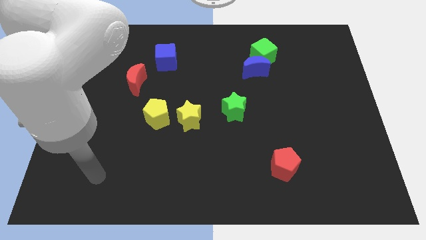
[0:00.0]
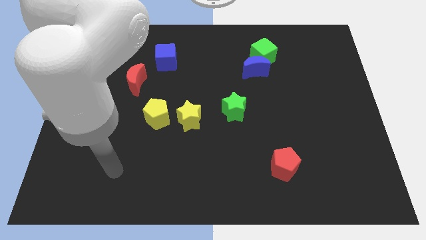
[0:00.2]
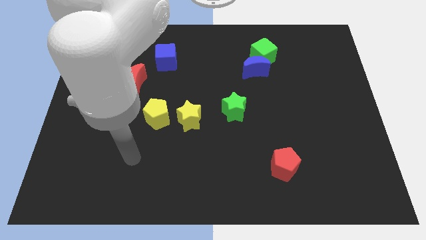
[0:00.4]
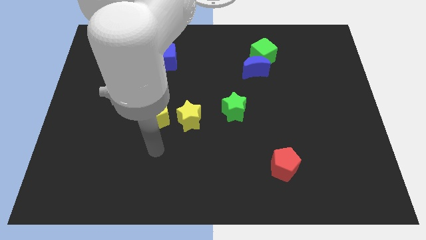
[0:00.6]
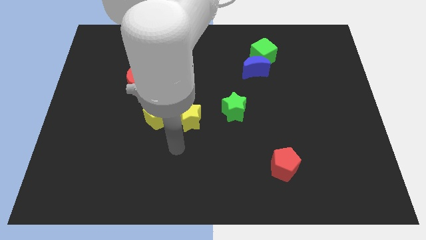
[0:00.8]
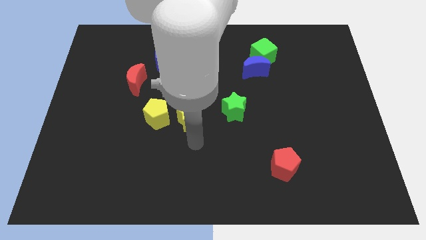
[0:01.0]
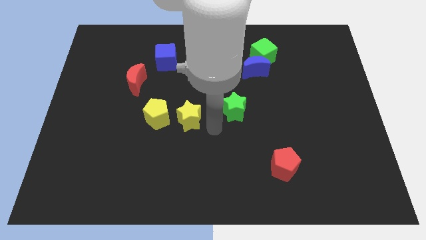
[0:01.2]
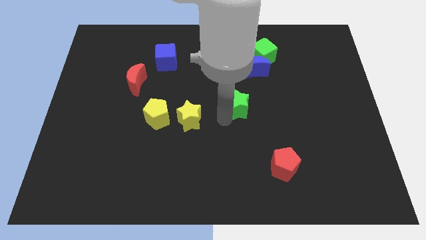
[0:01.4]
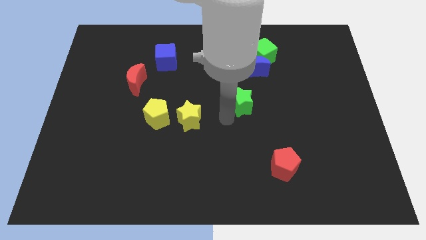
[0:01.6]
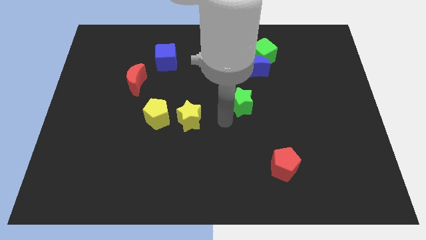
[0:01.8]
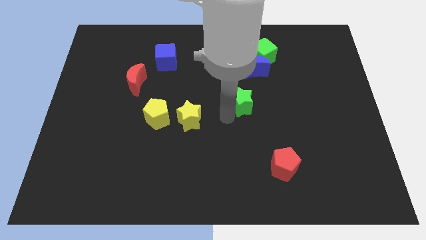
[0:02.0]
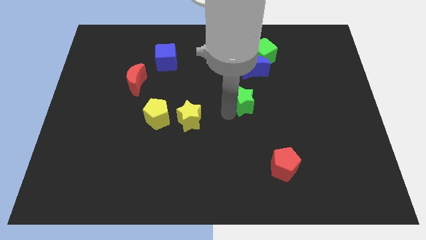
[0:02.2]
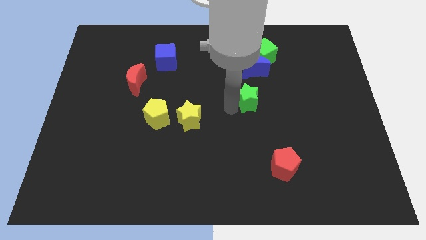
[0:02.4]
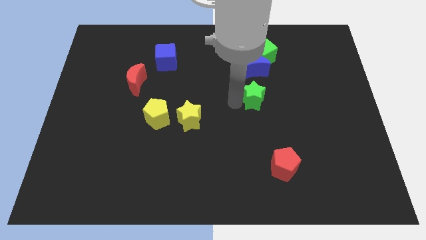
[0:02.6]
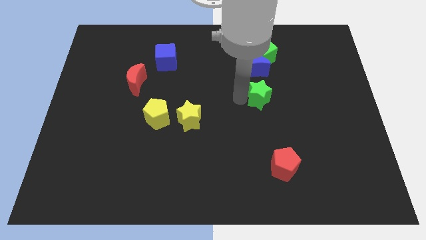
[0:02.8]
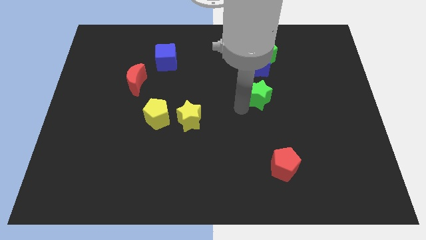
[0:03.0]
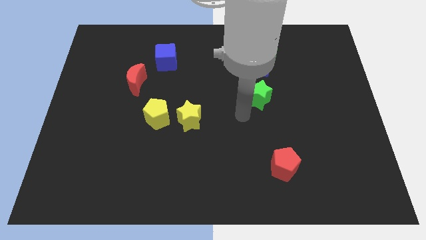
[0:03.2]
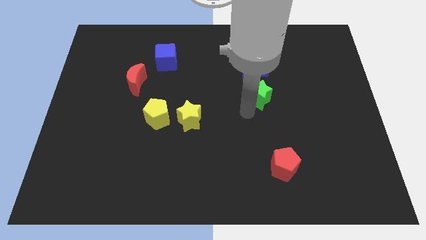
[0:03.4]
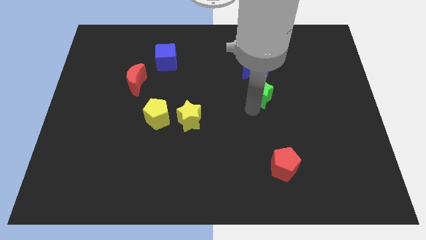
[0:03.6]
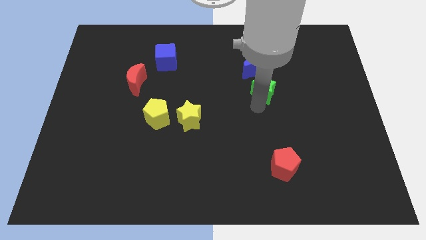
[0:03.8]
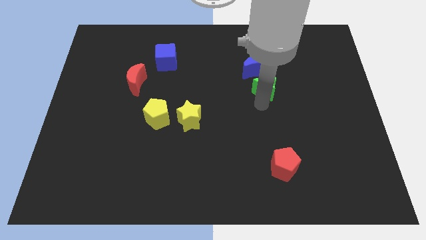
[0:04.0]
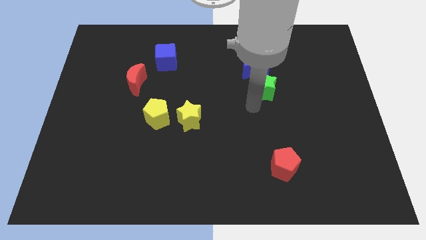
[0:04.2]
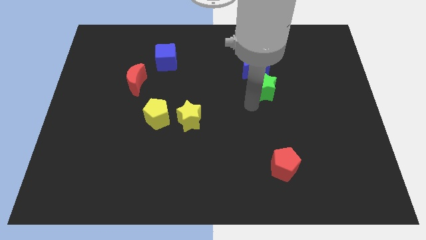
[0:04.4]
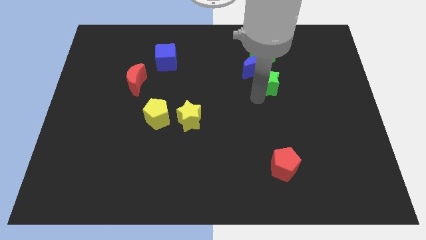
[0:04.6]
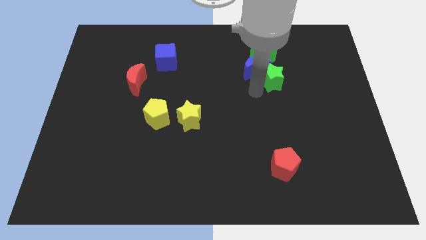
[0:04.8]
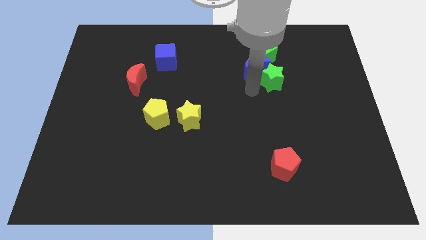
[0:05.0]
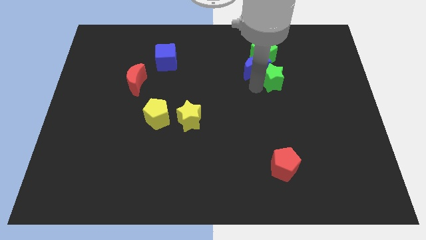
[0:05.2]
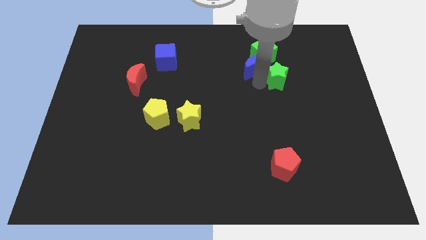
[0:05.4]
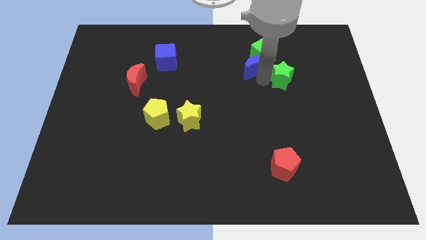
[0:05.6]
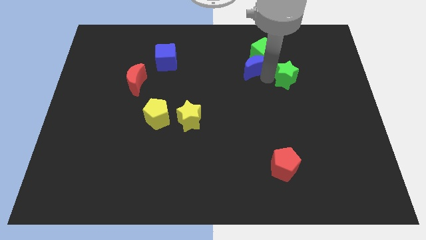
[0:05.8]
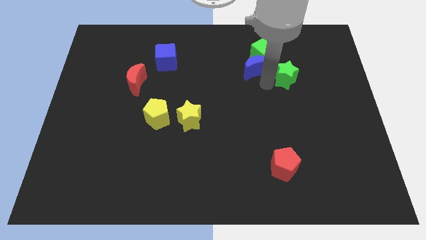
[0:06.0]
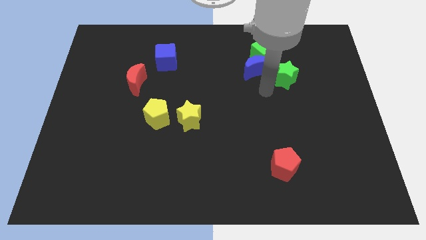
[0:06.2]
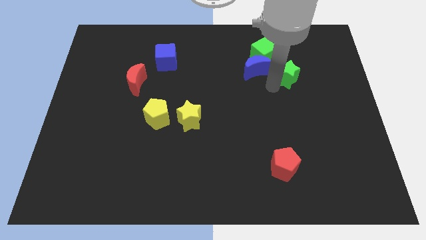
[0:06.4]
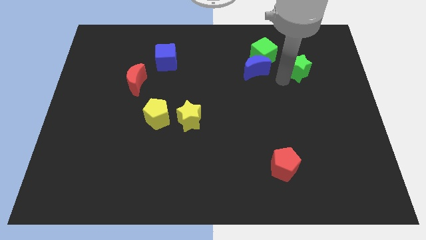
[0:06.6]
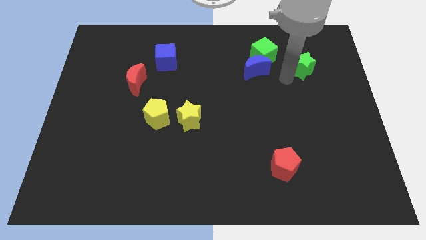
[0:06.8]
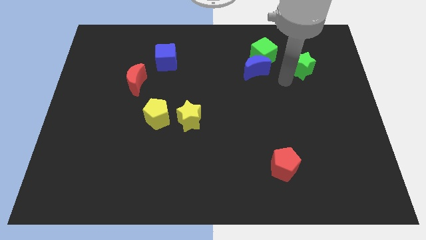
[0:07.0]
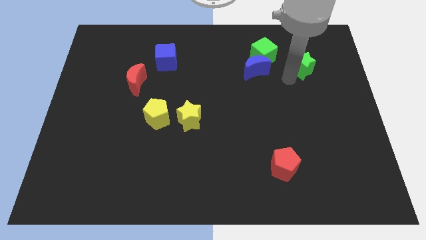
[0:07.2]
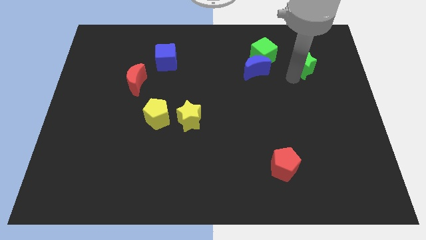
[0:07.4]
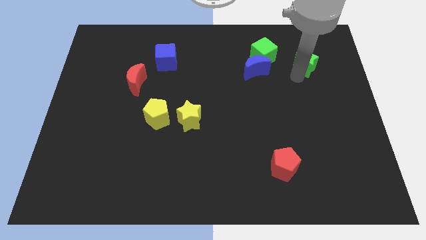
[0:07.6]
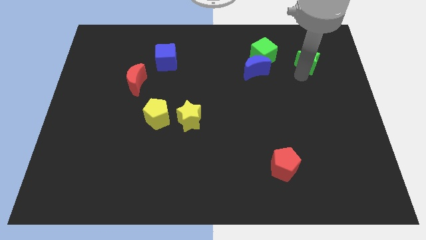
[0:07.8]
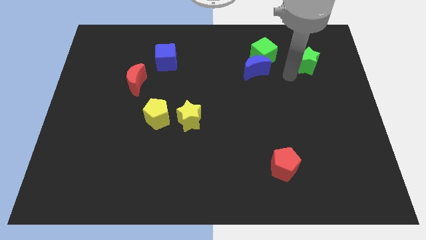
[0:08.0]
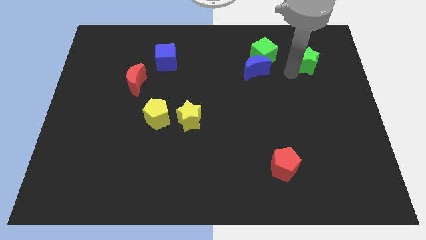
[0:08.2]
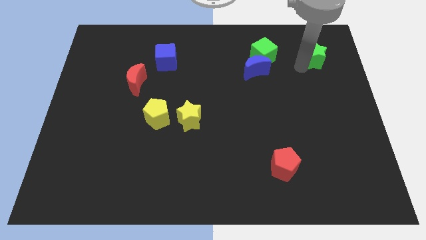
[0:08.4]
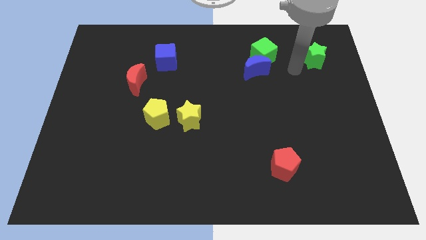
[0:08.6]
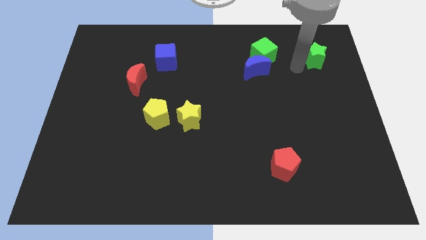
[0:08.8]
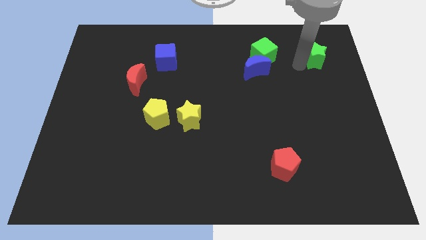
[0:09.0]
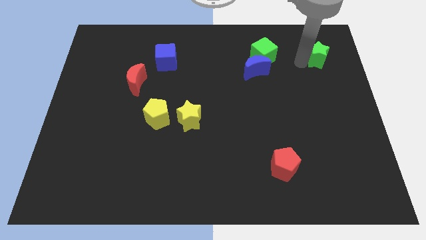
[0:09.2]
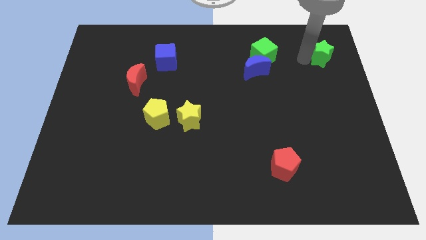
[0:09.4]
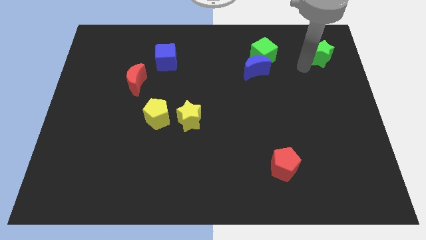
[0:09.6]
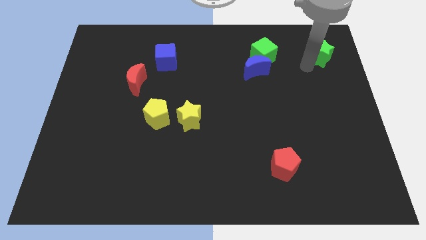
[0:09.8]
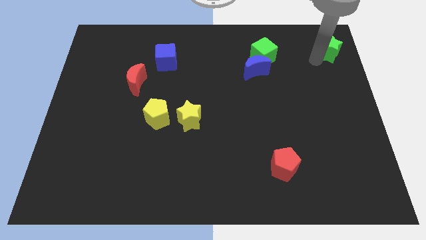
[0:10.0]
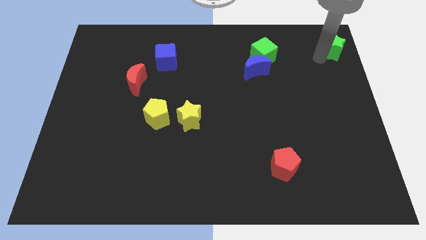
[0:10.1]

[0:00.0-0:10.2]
put the green star to the top right

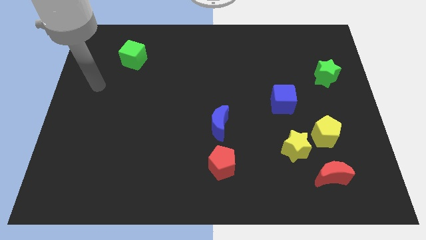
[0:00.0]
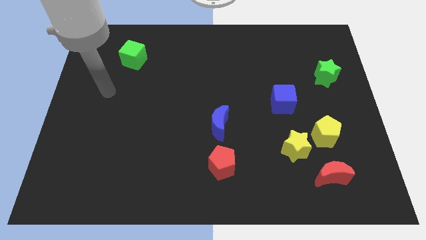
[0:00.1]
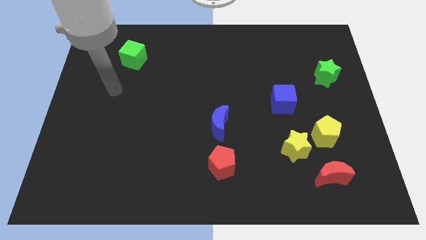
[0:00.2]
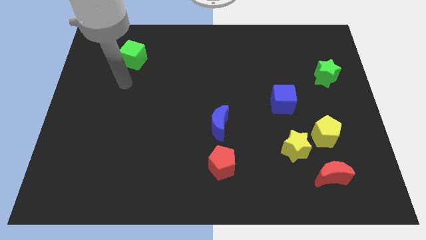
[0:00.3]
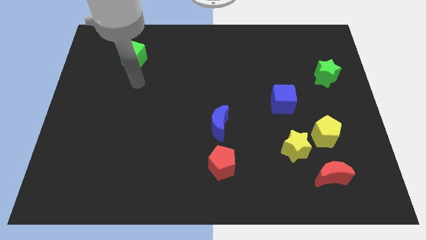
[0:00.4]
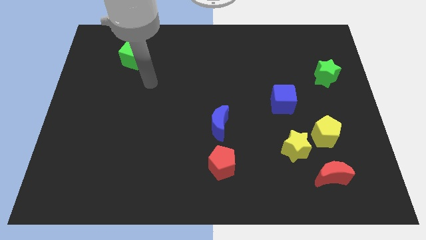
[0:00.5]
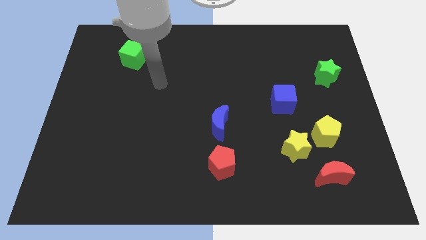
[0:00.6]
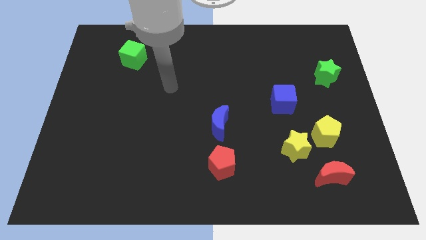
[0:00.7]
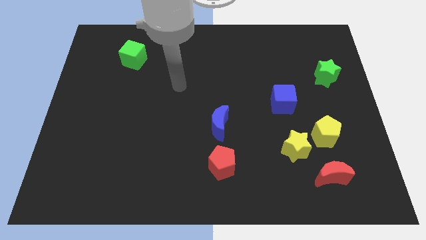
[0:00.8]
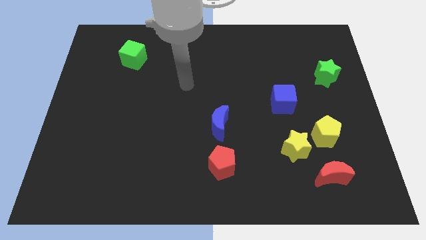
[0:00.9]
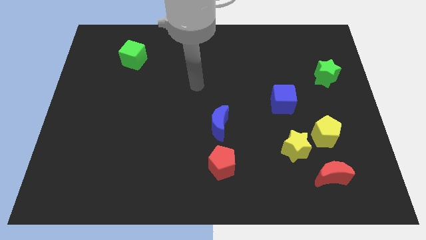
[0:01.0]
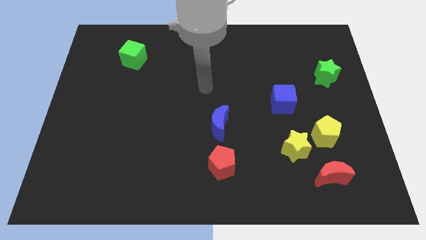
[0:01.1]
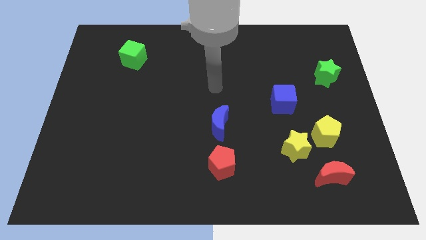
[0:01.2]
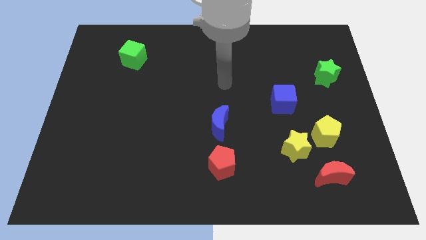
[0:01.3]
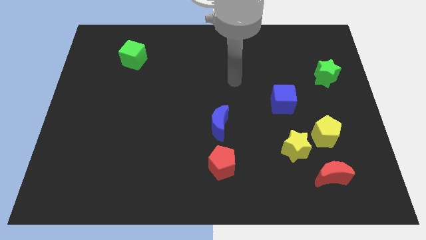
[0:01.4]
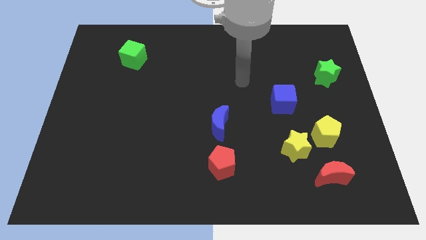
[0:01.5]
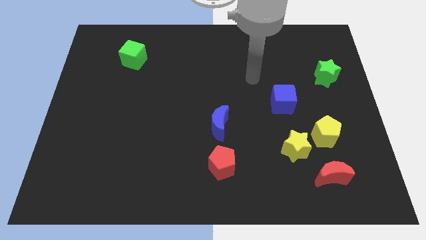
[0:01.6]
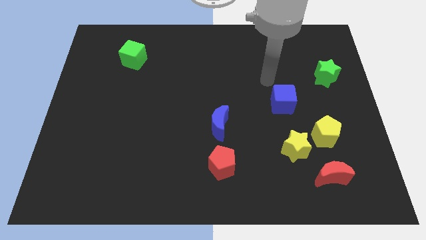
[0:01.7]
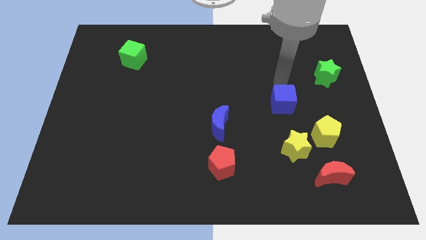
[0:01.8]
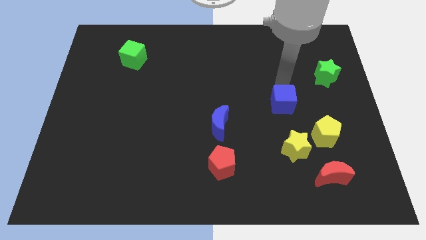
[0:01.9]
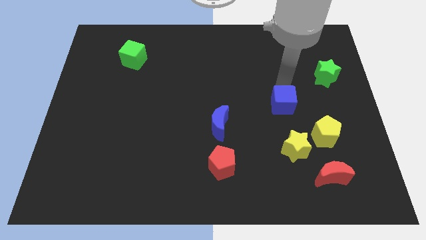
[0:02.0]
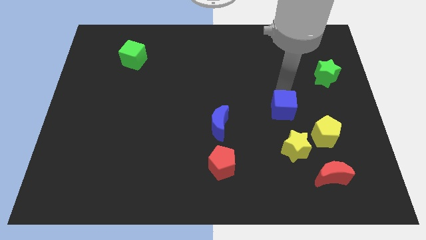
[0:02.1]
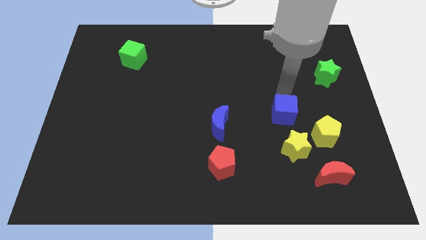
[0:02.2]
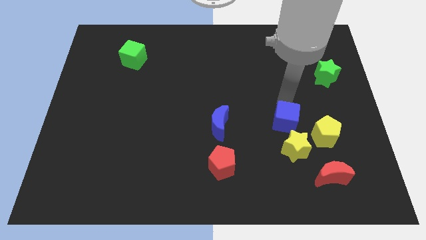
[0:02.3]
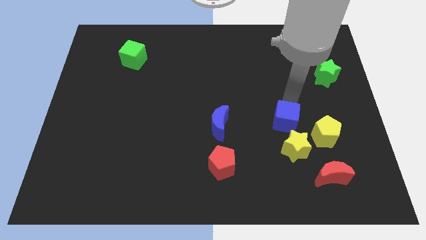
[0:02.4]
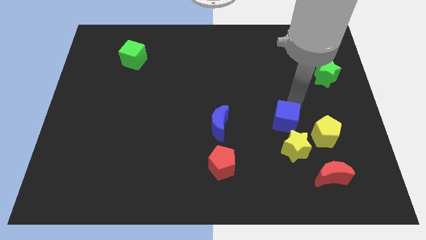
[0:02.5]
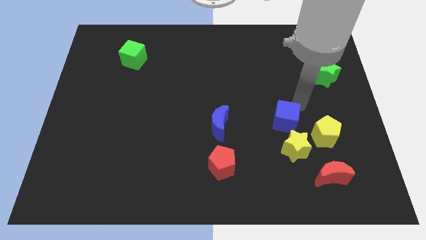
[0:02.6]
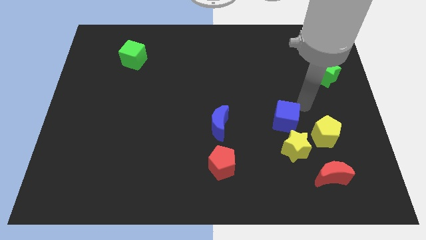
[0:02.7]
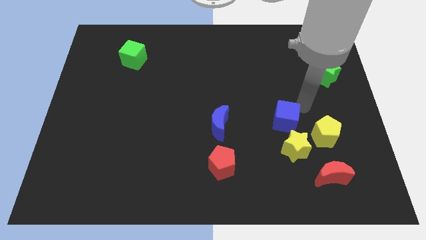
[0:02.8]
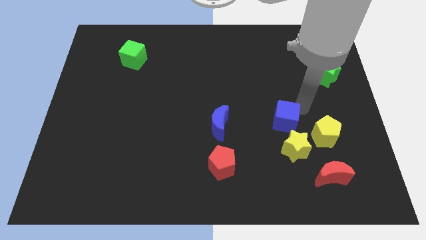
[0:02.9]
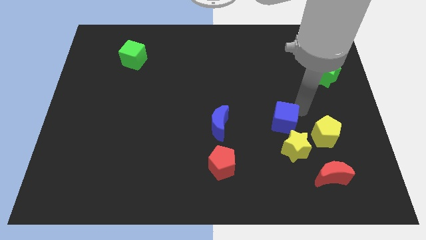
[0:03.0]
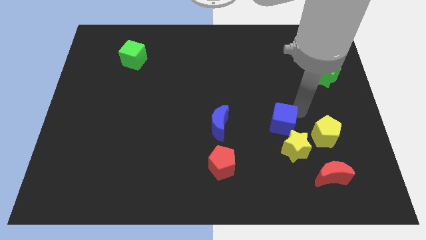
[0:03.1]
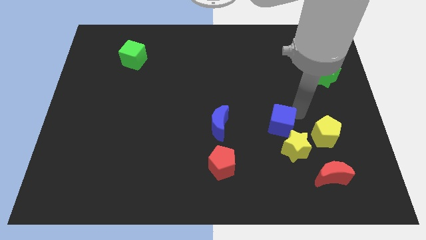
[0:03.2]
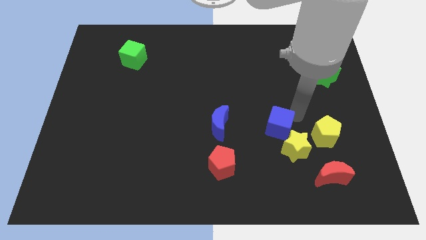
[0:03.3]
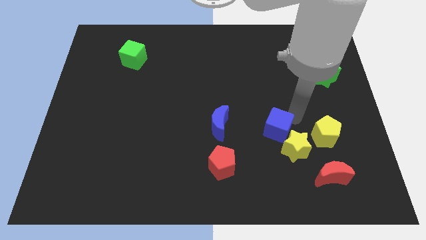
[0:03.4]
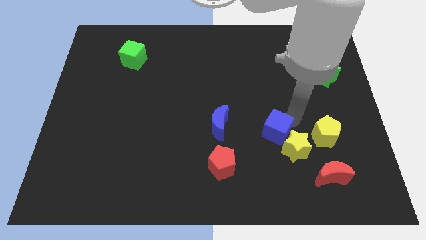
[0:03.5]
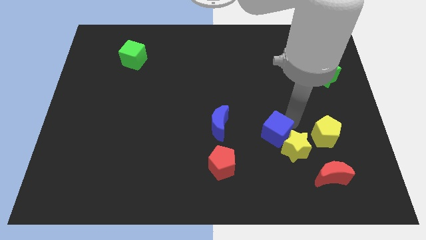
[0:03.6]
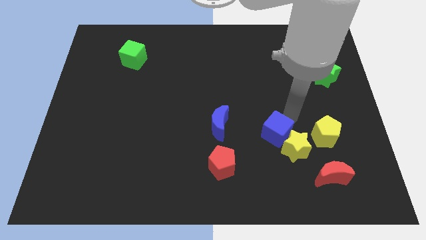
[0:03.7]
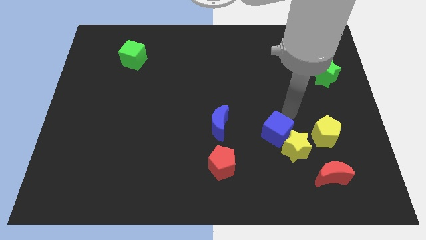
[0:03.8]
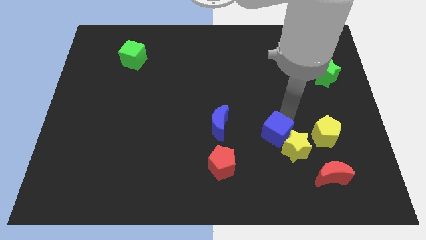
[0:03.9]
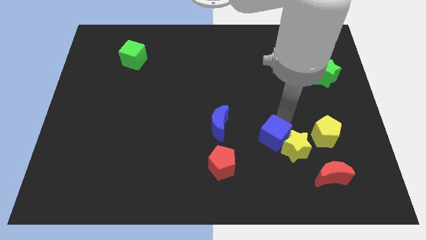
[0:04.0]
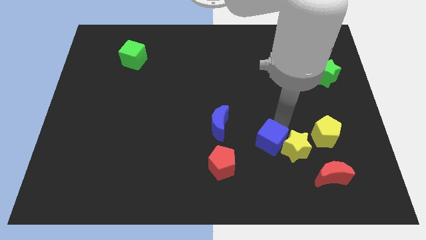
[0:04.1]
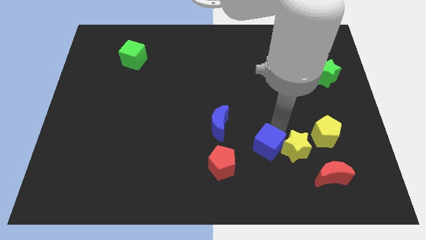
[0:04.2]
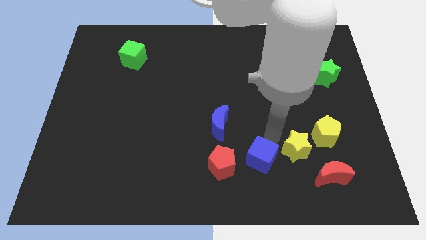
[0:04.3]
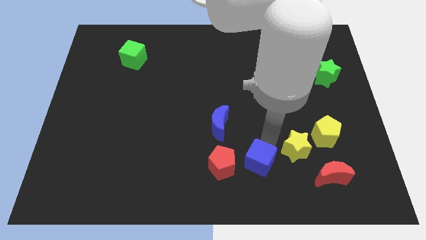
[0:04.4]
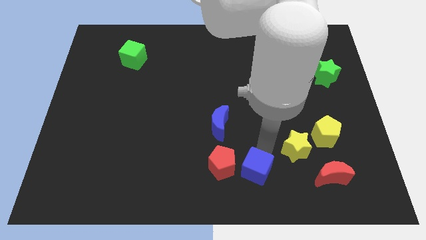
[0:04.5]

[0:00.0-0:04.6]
push the blue cube to the bottom
